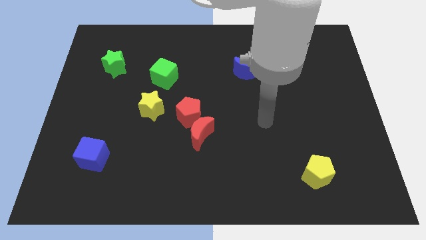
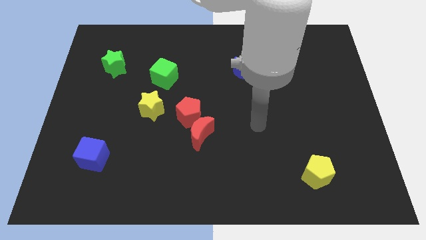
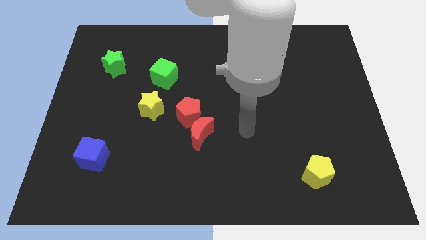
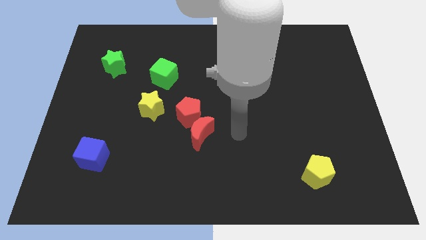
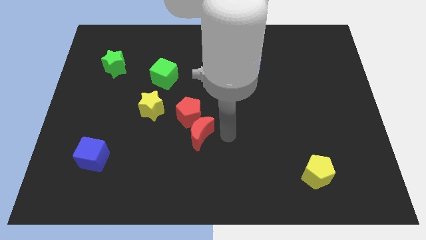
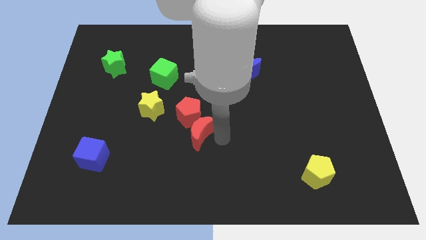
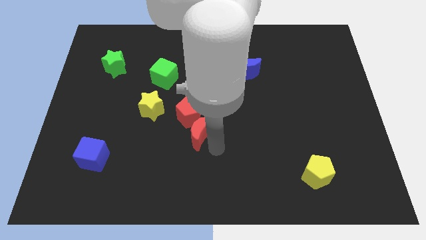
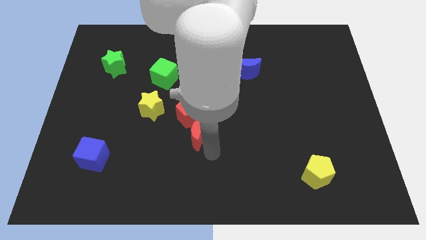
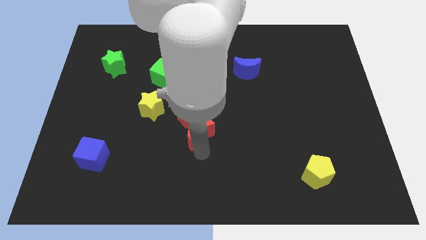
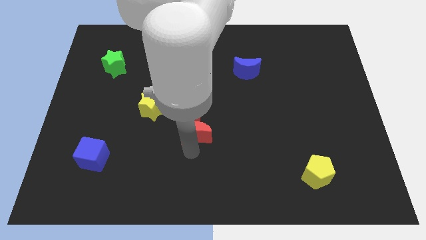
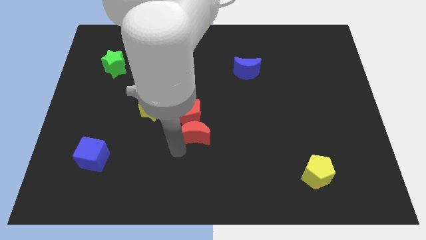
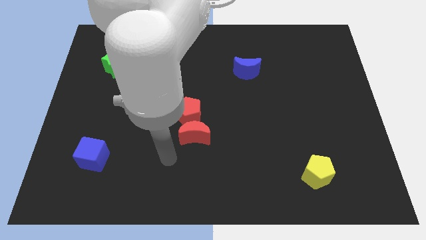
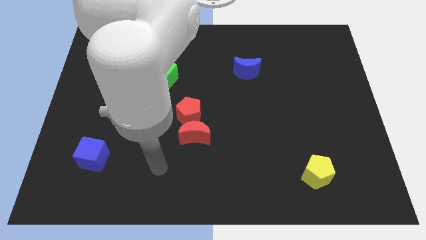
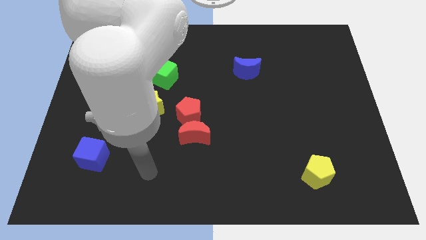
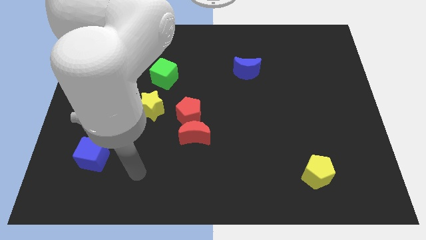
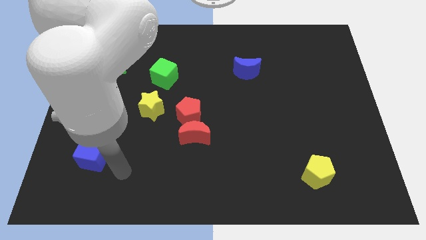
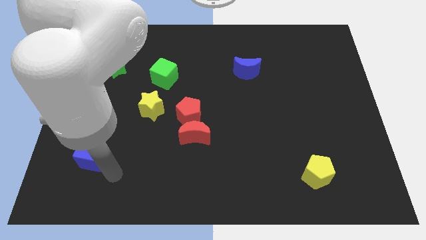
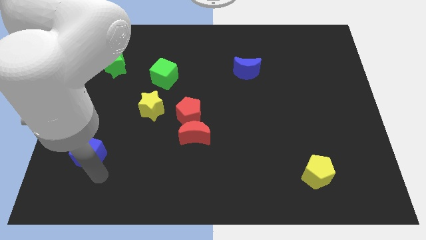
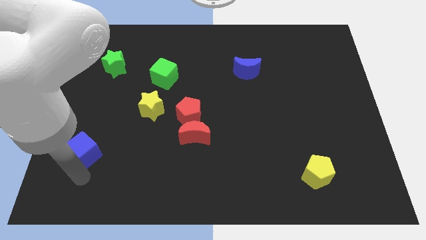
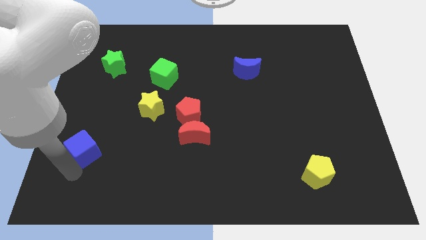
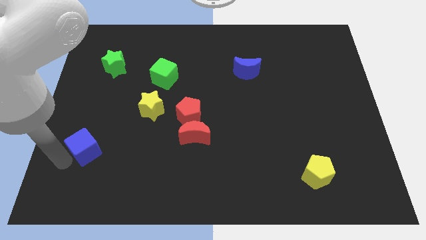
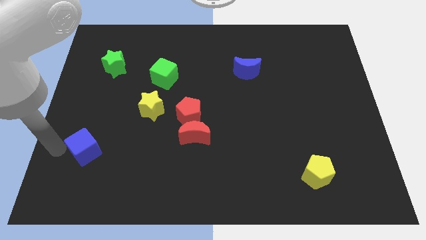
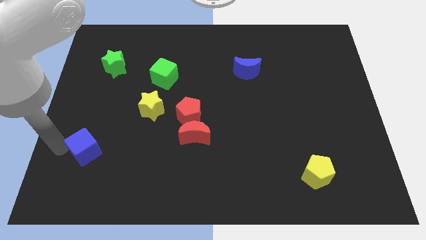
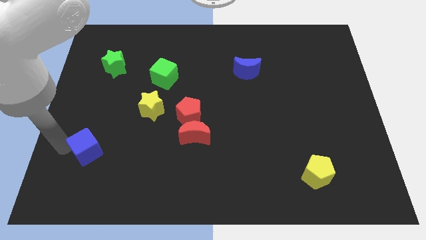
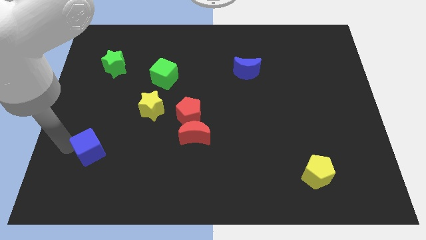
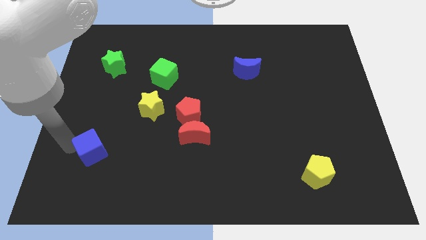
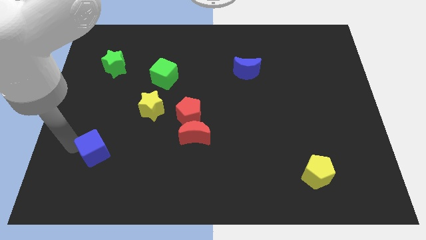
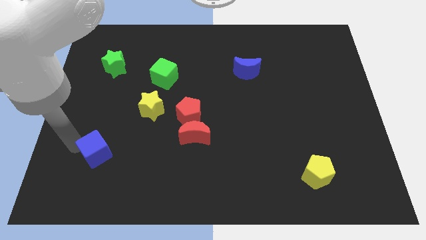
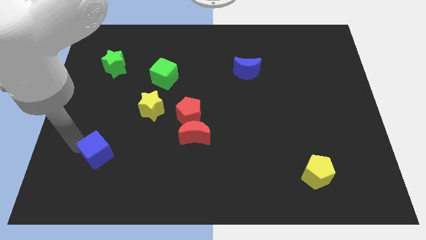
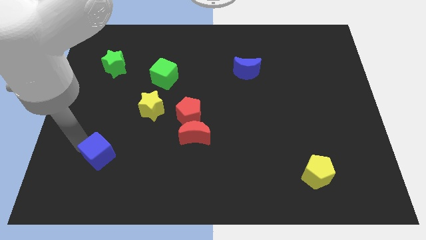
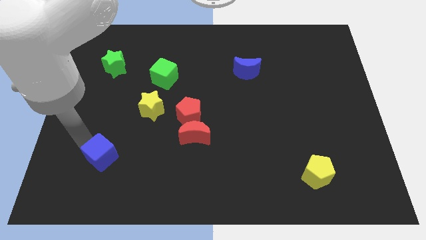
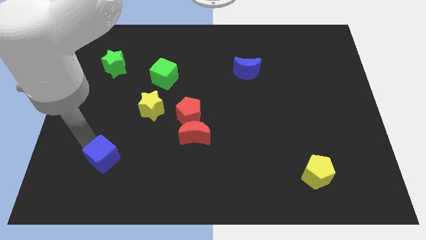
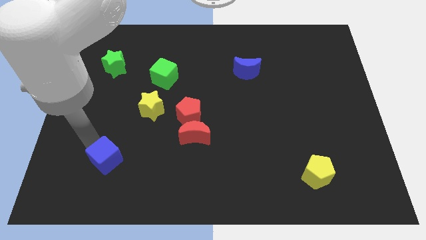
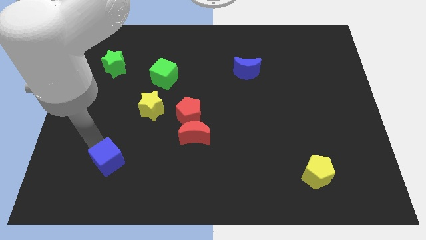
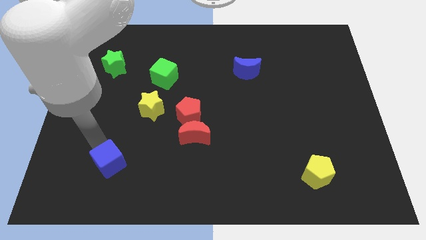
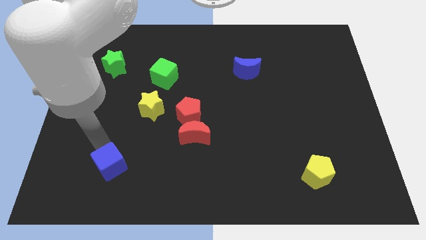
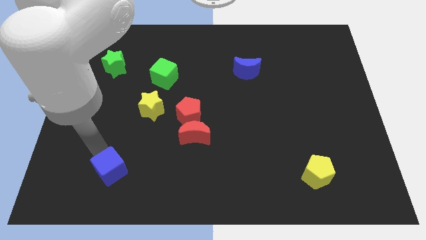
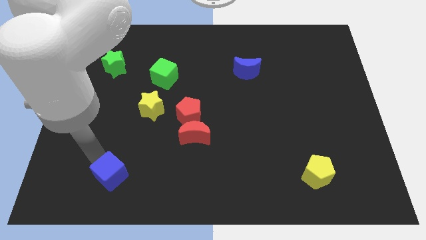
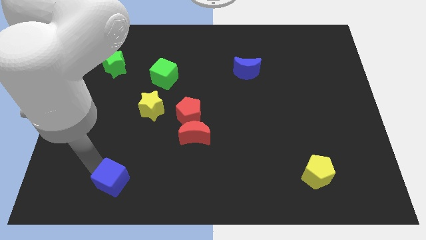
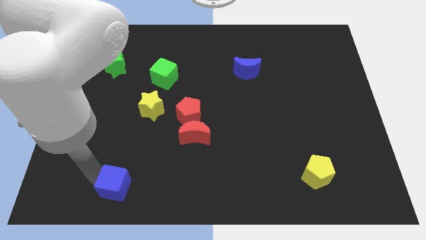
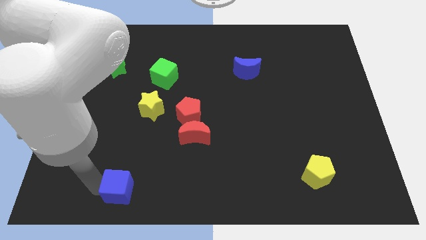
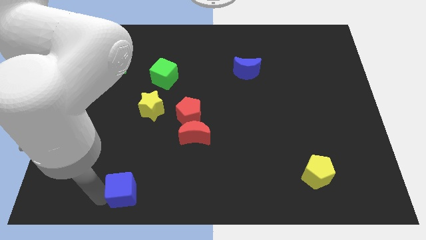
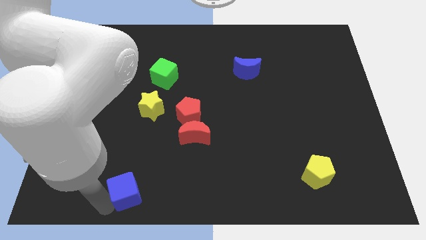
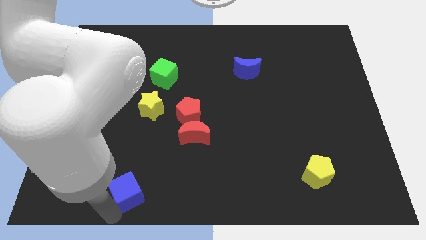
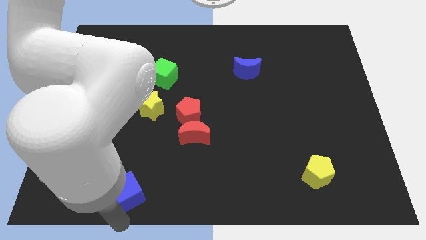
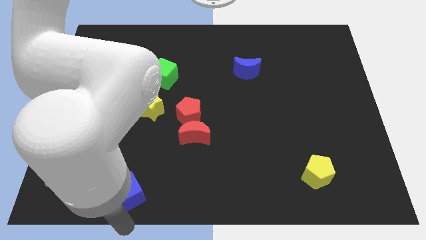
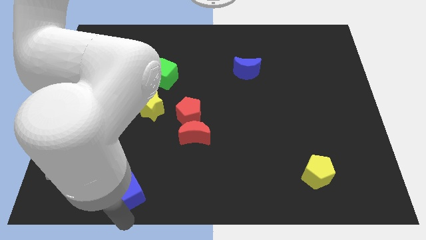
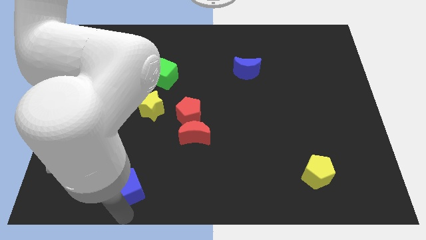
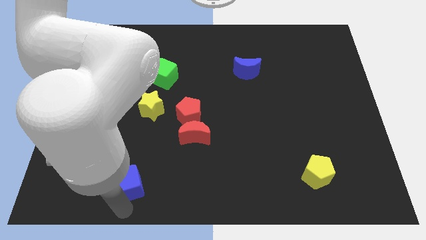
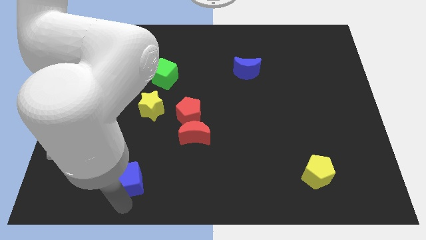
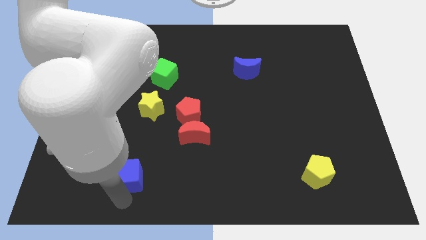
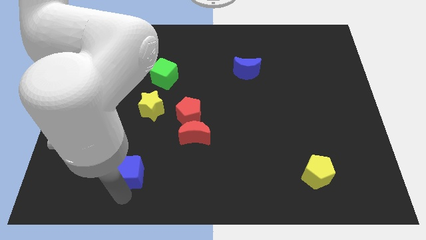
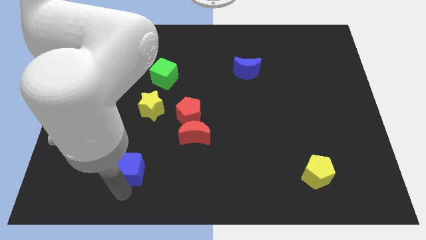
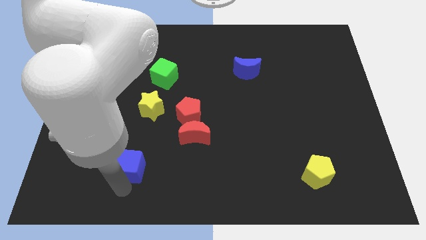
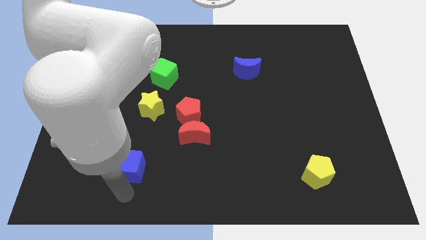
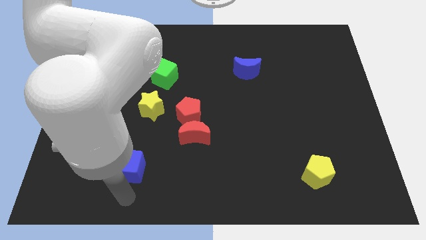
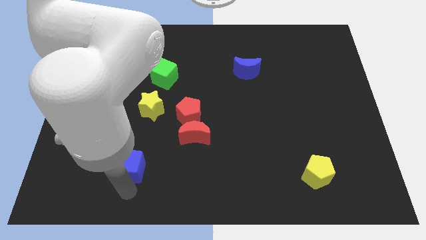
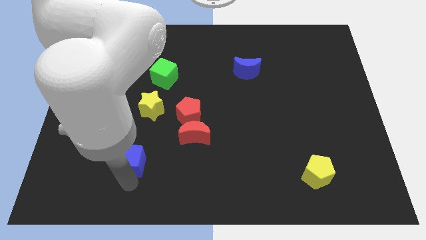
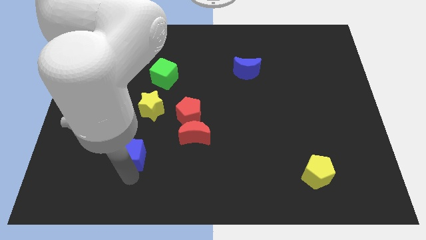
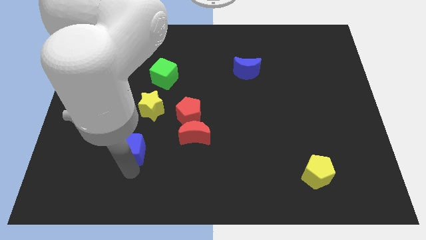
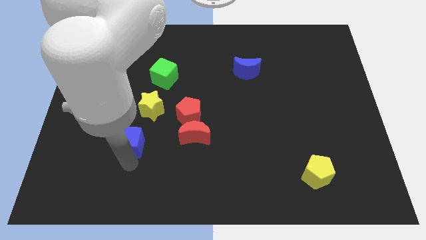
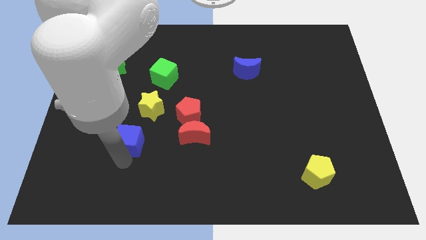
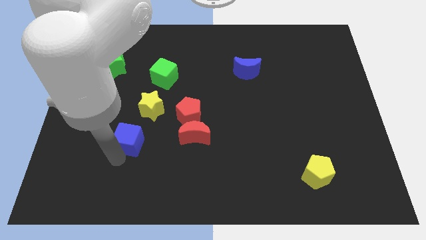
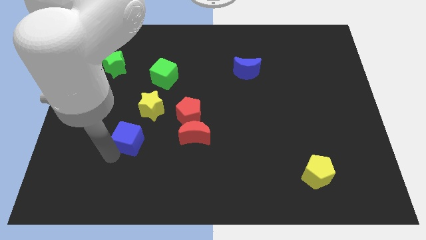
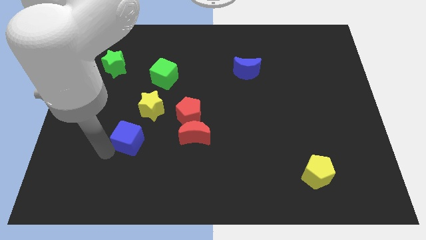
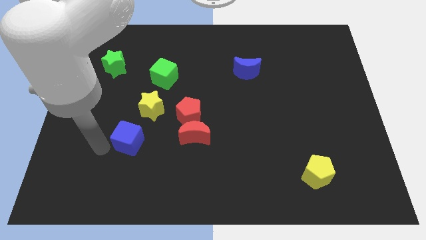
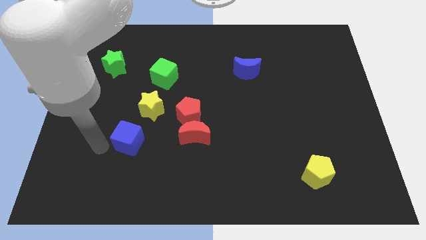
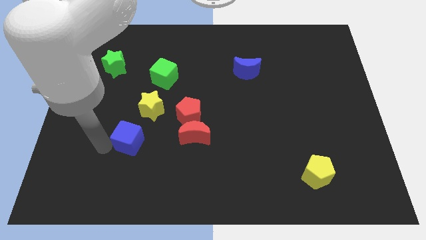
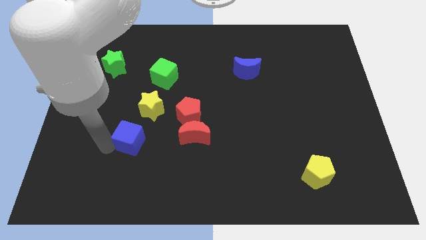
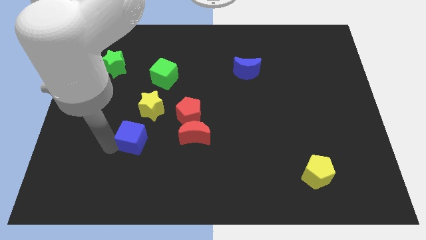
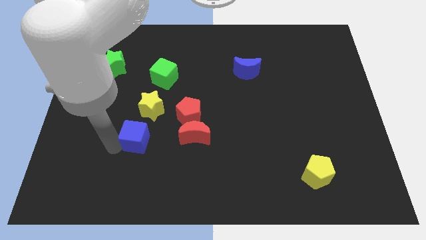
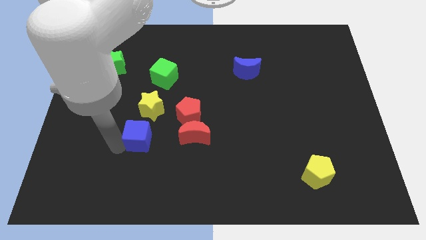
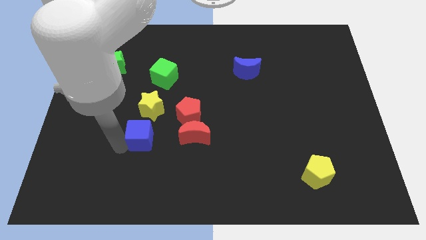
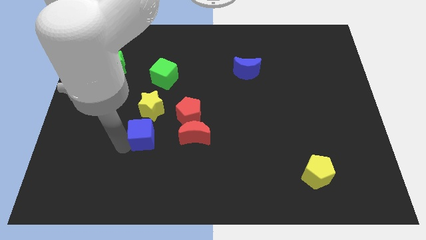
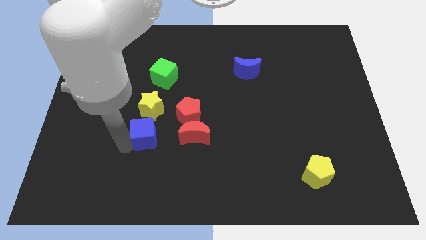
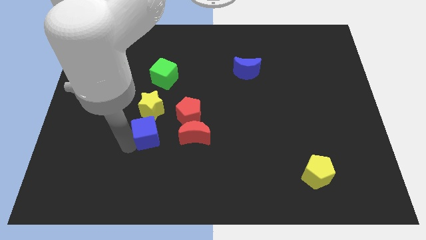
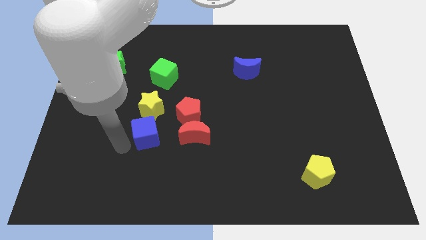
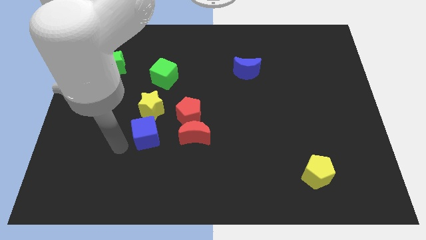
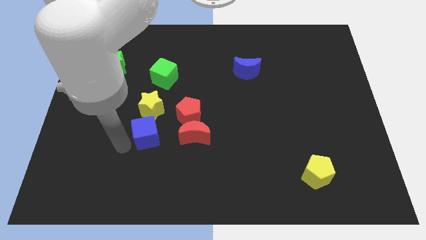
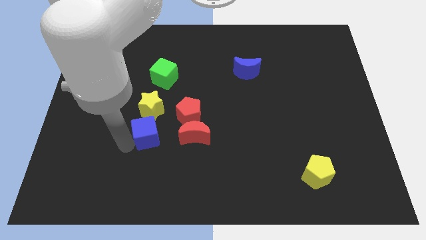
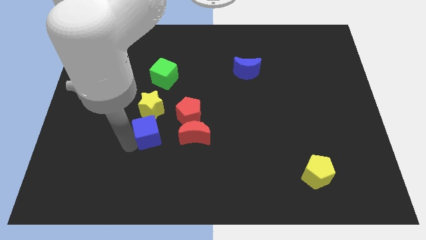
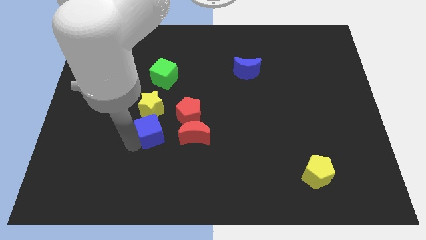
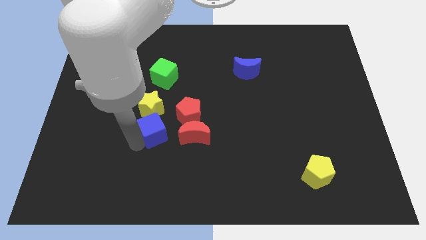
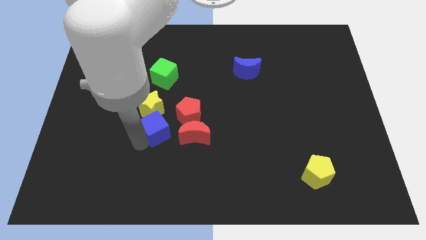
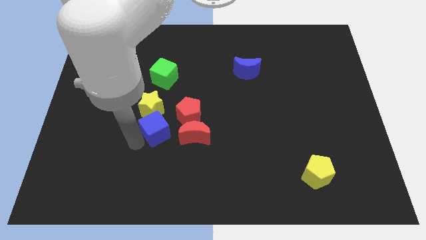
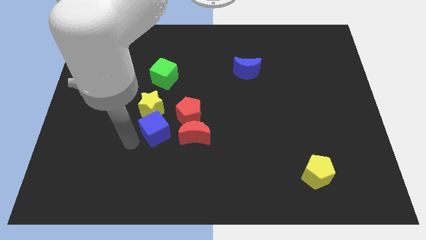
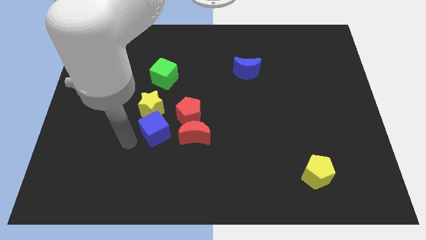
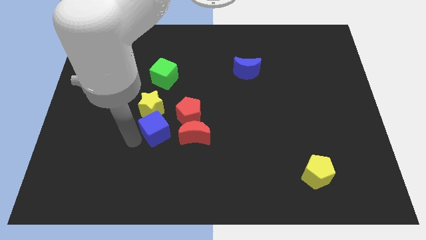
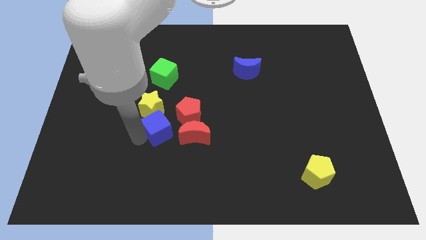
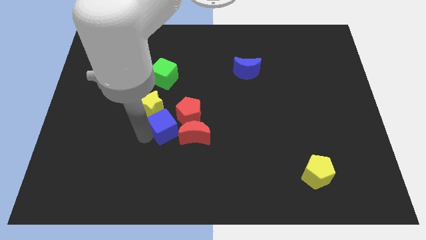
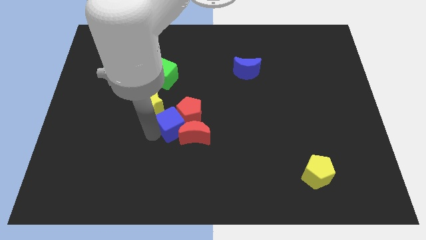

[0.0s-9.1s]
move the blue cube to the red pentagon
